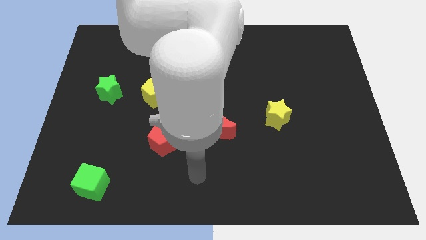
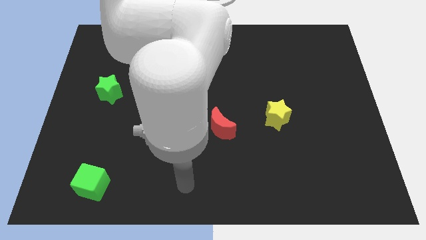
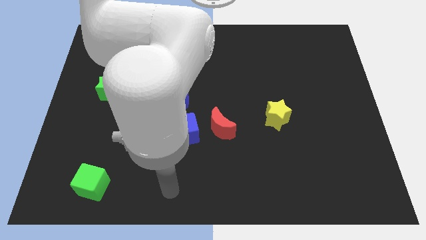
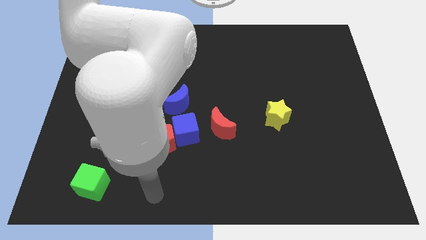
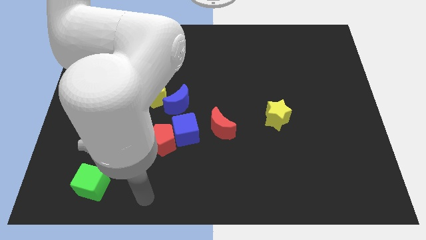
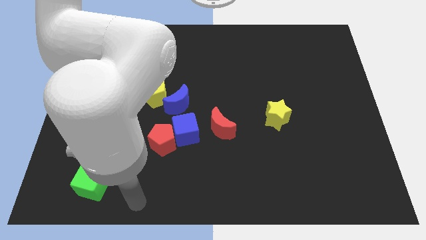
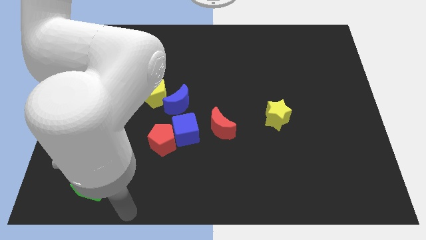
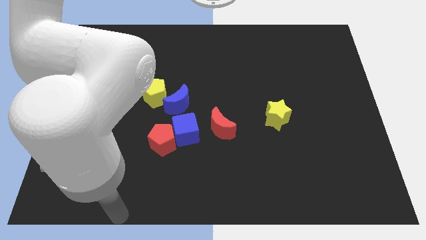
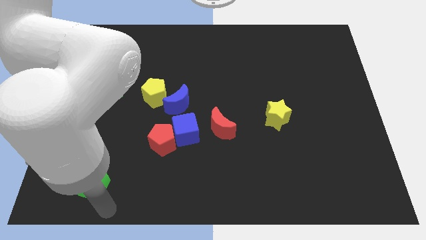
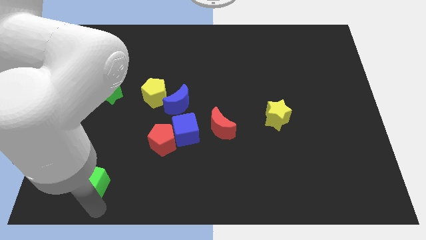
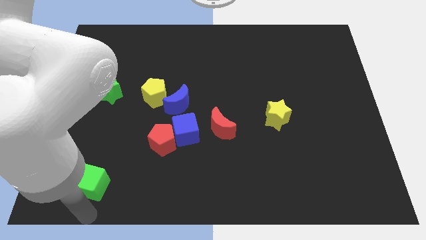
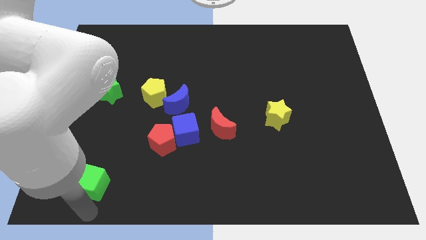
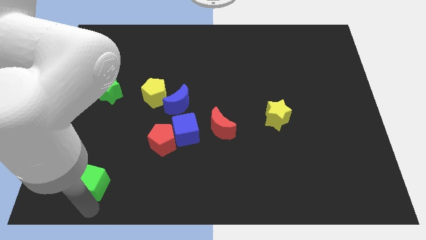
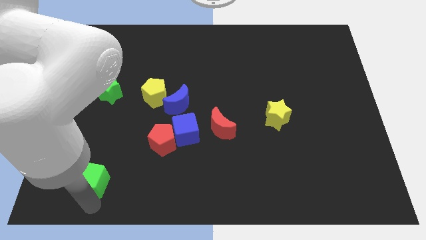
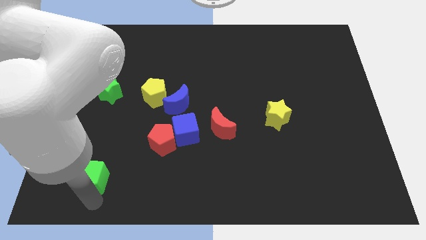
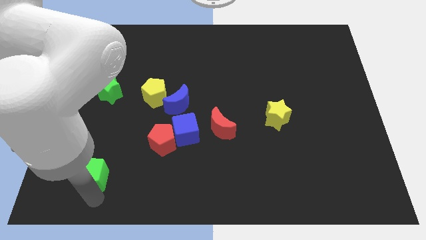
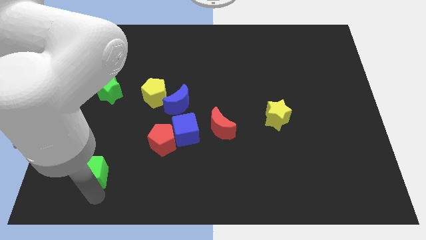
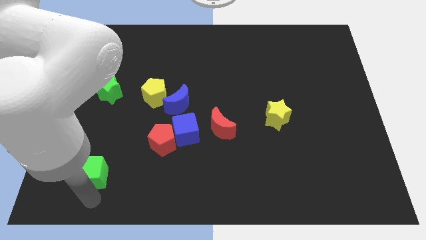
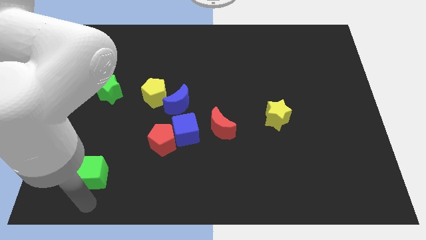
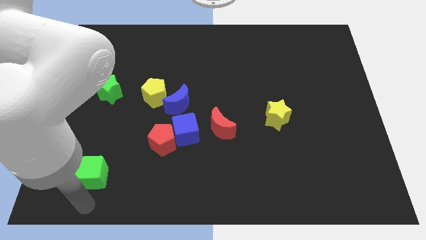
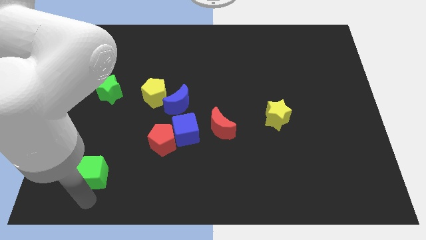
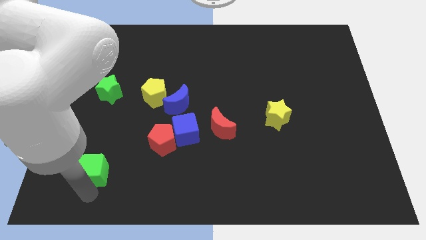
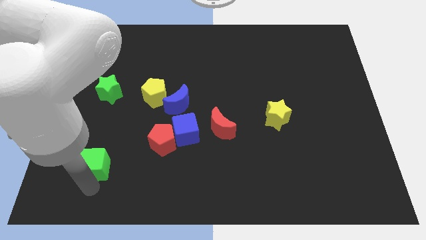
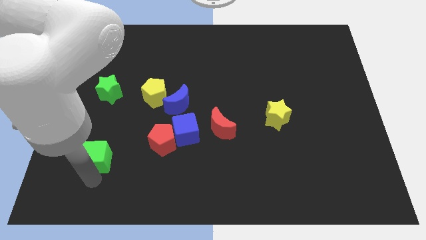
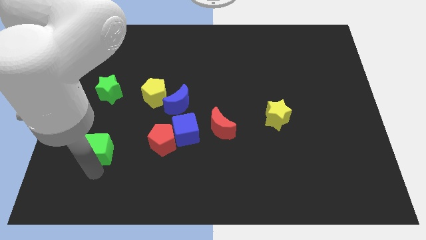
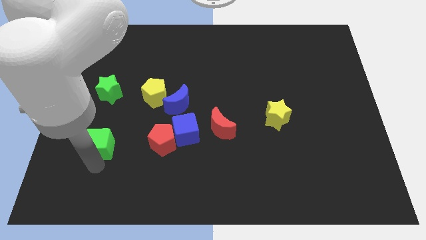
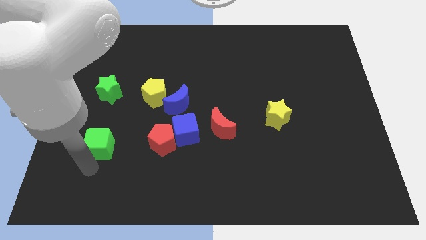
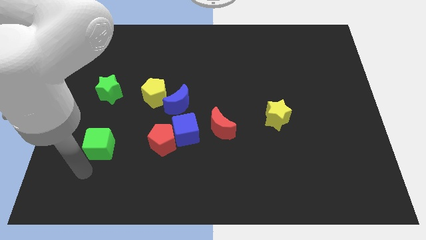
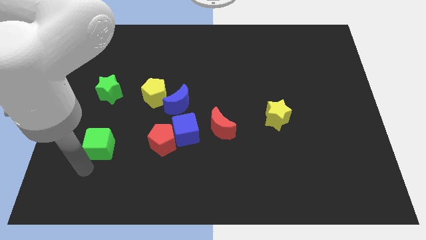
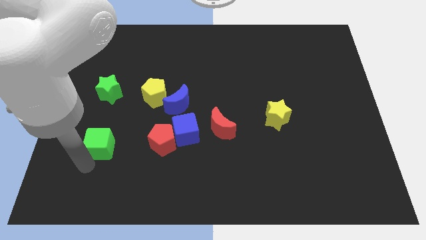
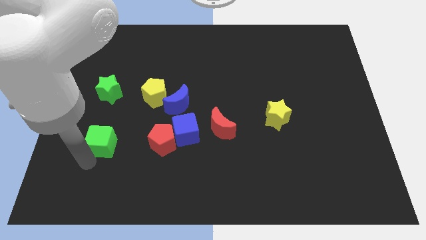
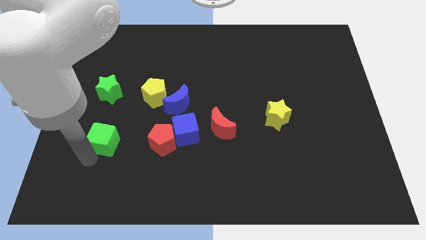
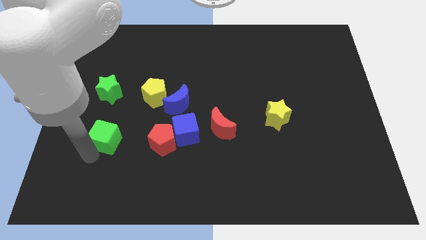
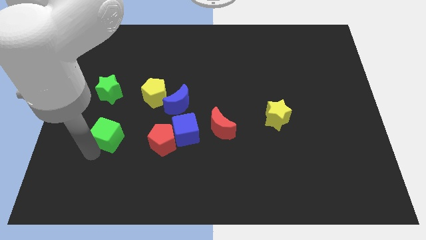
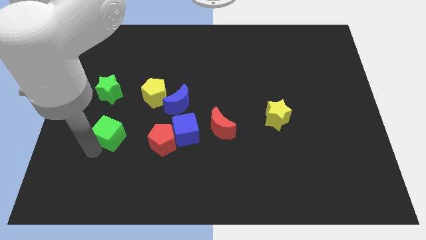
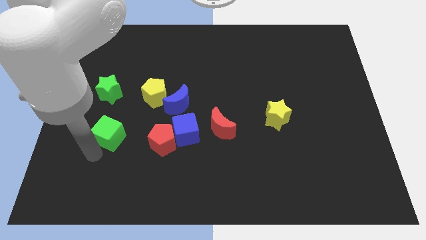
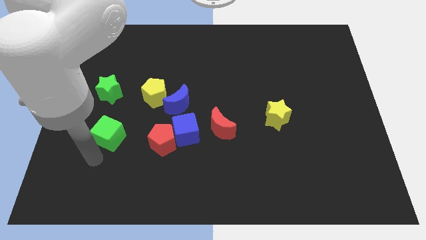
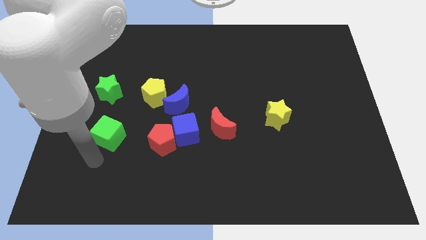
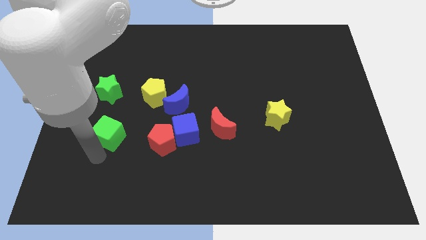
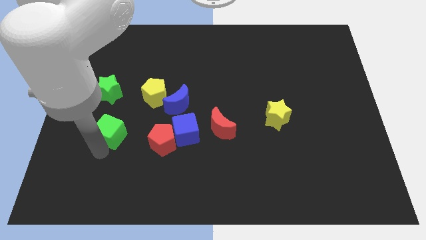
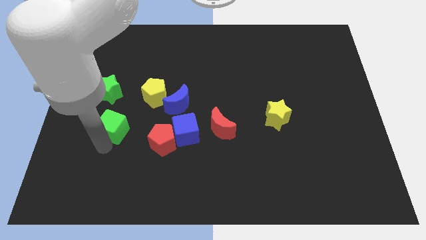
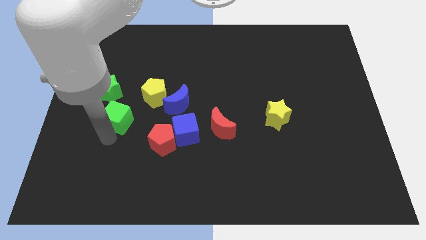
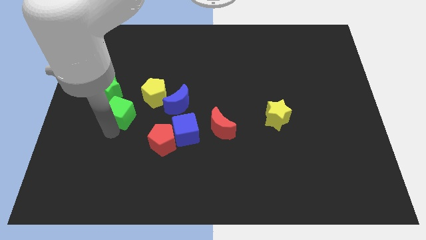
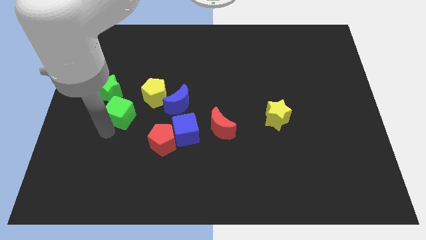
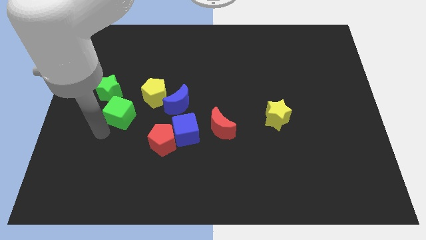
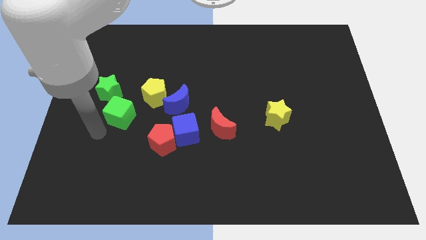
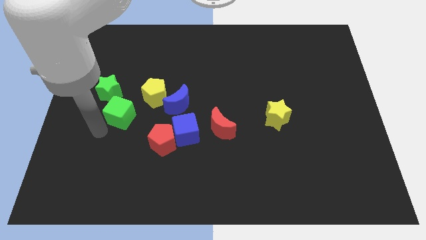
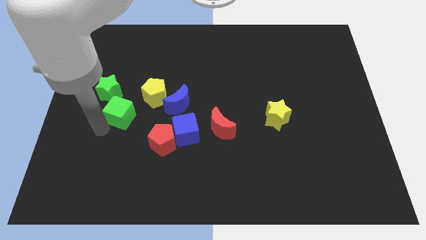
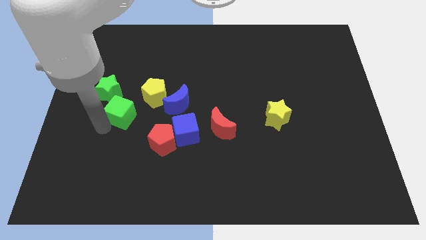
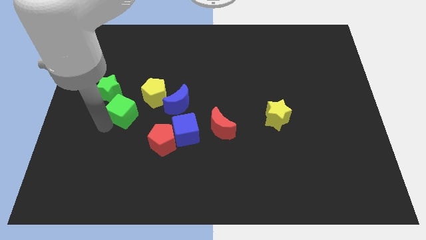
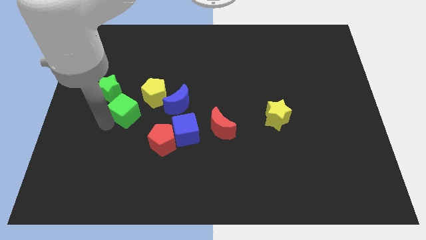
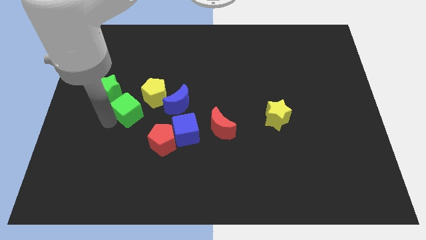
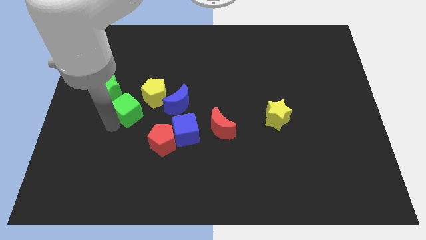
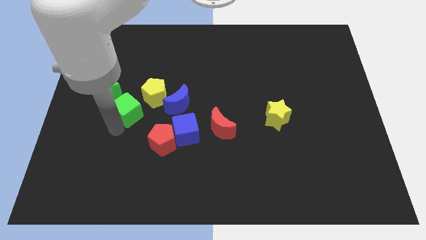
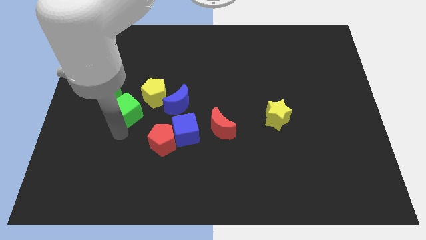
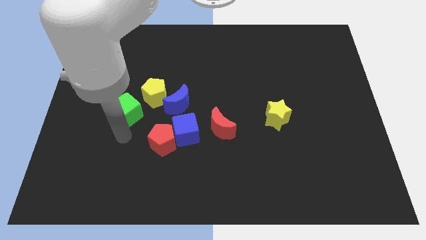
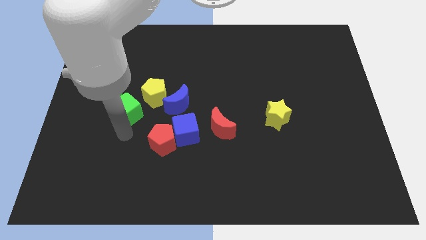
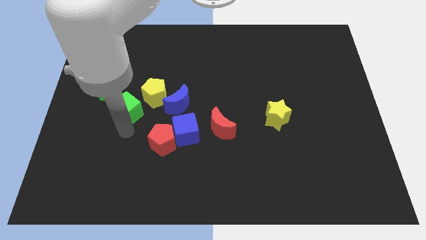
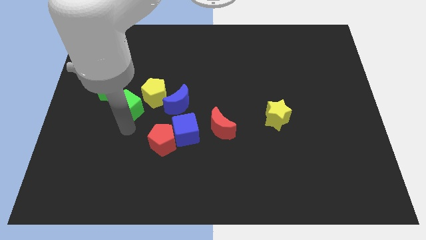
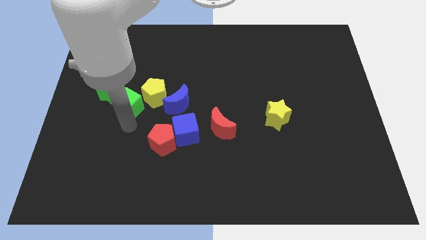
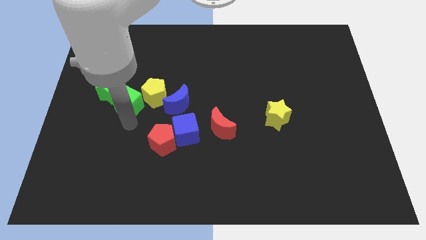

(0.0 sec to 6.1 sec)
slide the green cube up

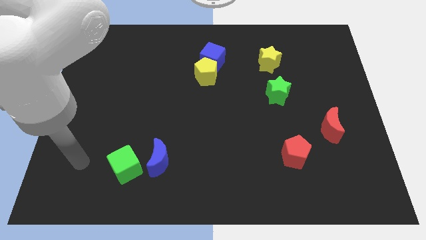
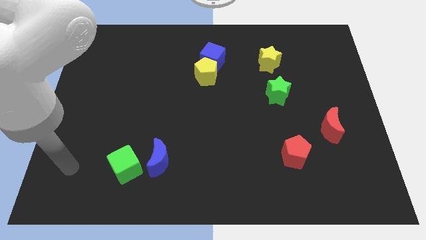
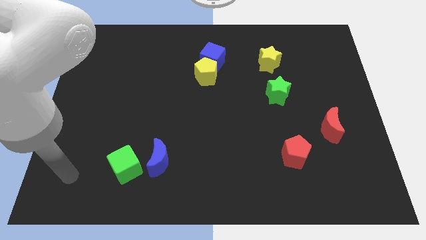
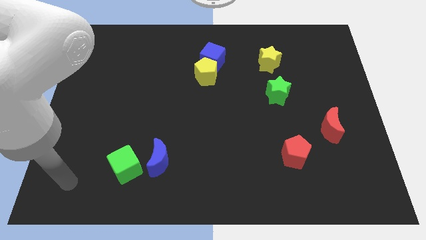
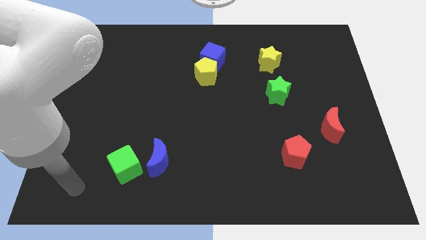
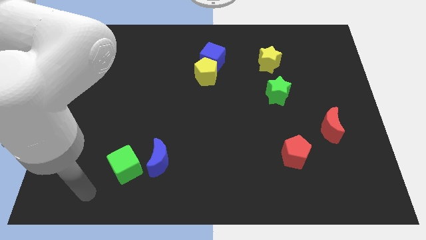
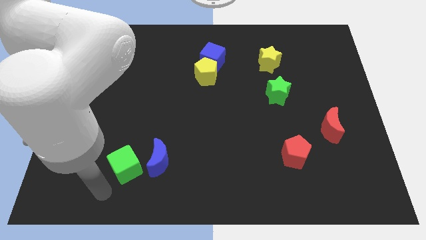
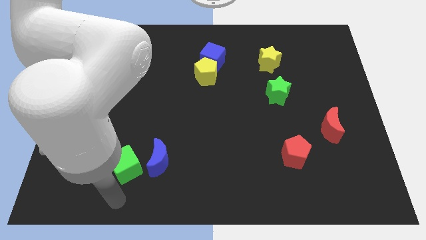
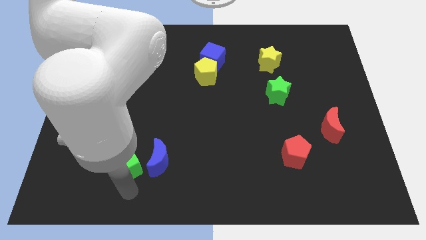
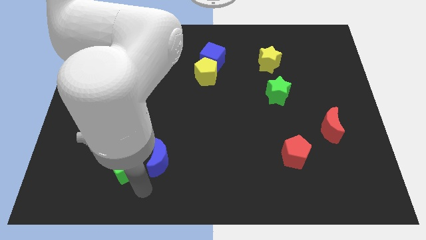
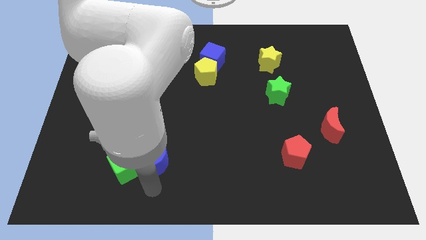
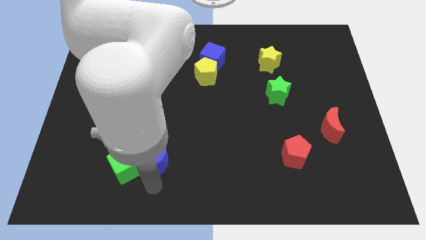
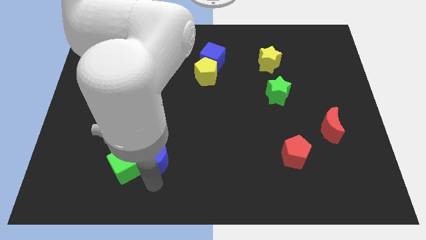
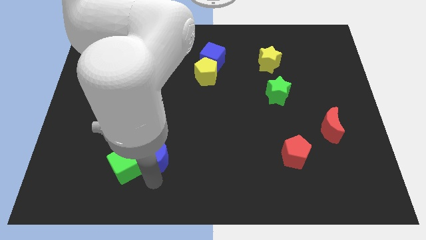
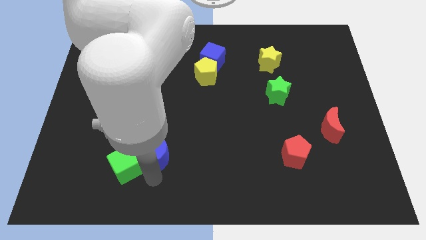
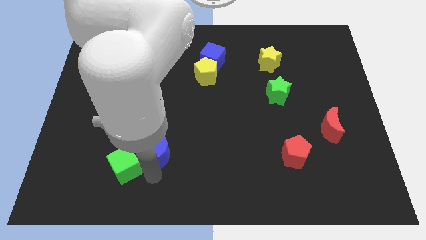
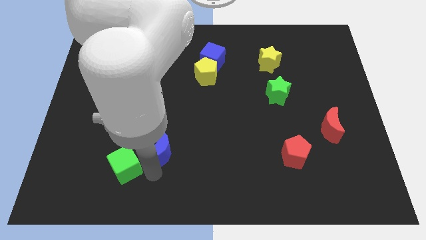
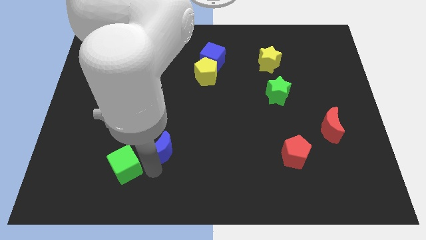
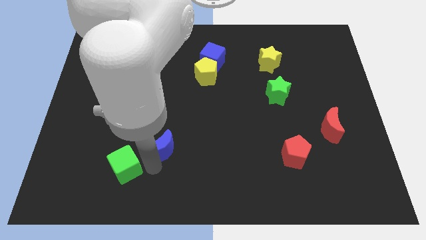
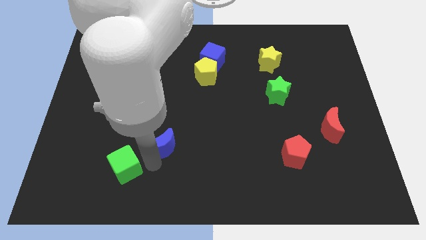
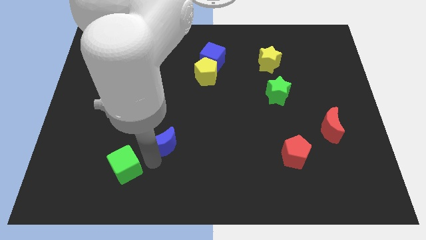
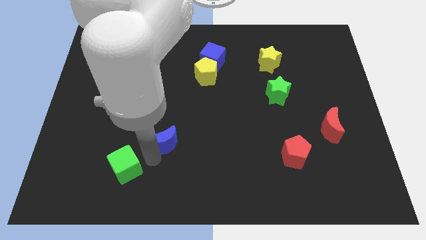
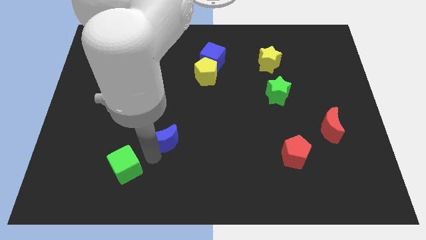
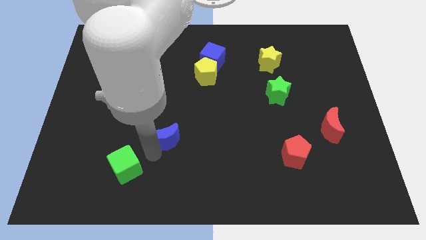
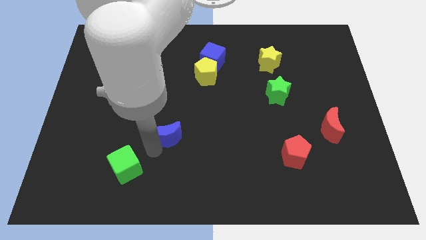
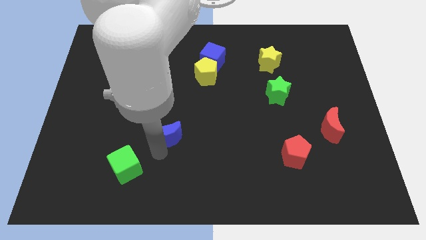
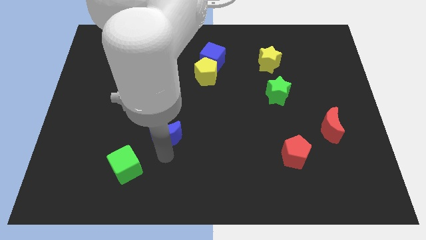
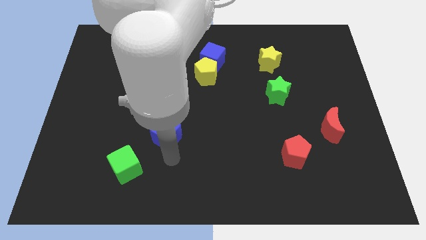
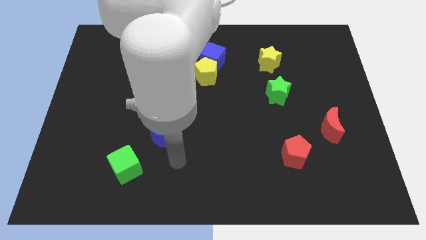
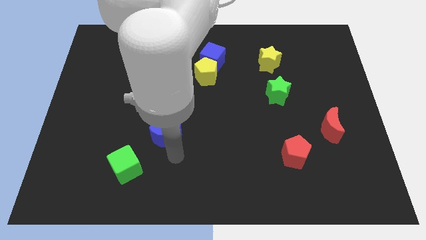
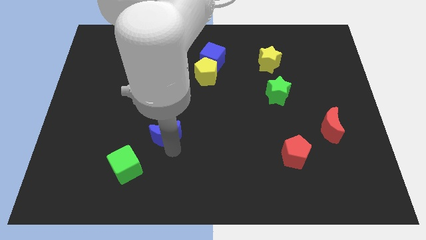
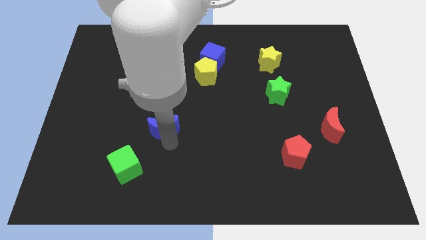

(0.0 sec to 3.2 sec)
move the blue moon a little bit upwards
